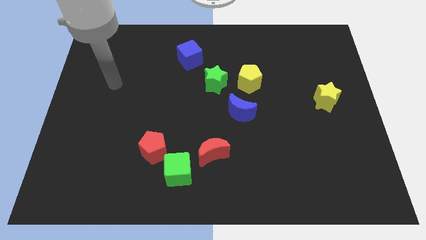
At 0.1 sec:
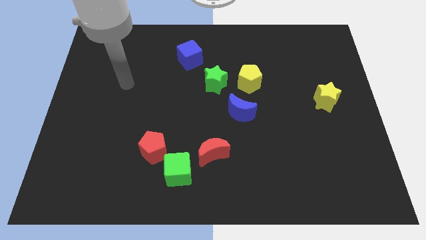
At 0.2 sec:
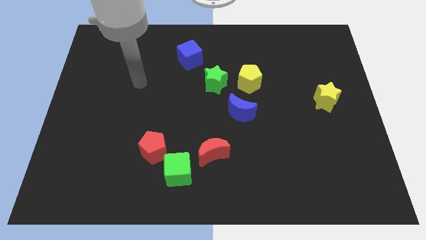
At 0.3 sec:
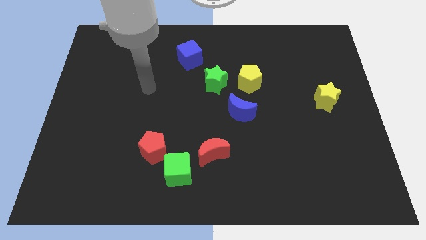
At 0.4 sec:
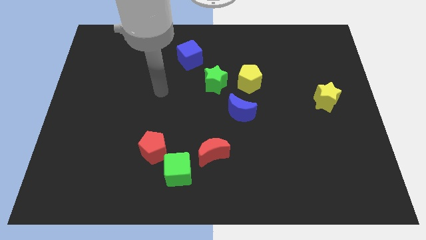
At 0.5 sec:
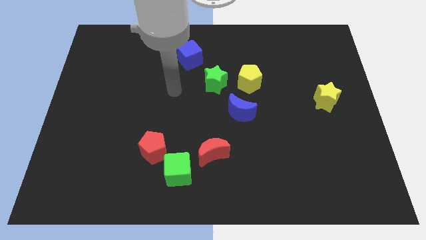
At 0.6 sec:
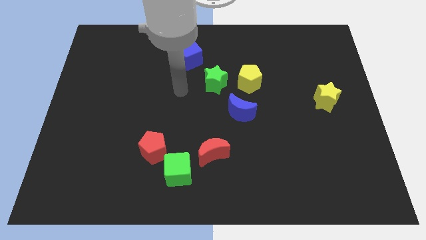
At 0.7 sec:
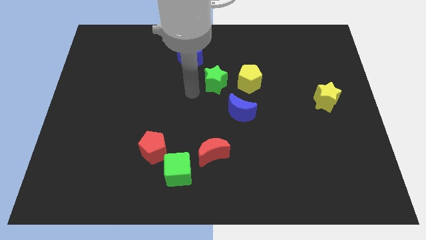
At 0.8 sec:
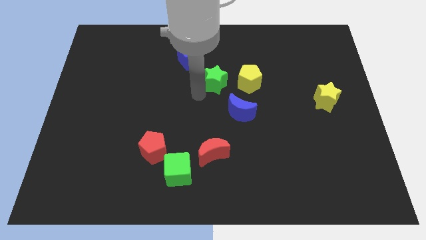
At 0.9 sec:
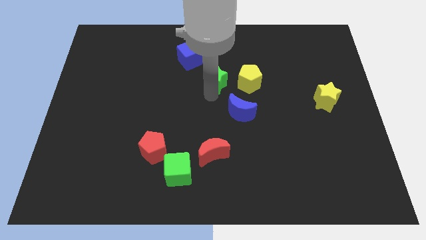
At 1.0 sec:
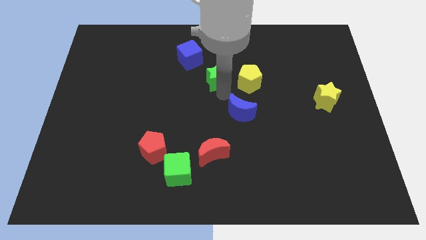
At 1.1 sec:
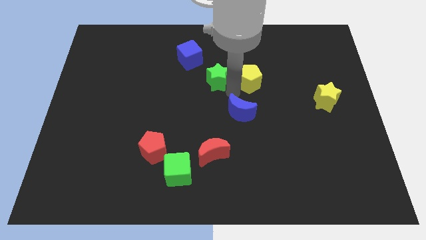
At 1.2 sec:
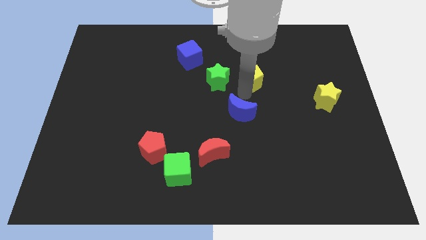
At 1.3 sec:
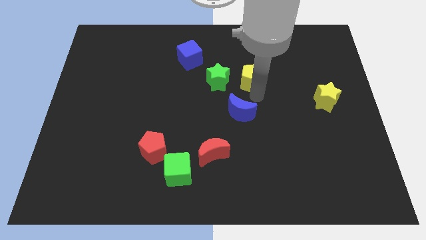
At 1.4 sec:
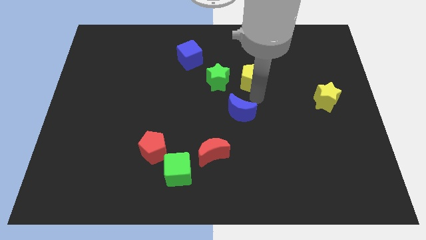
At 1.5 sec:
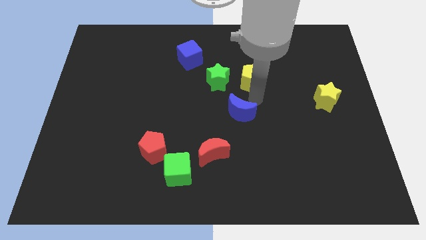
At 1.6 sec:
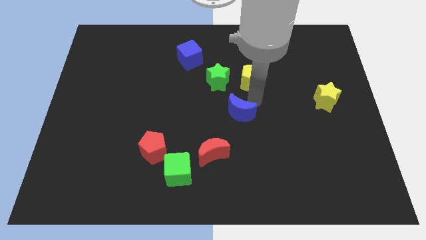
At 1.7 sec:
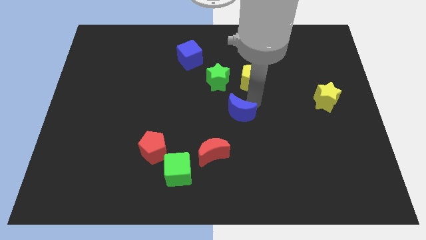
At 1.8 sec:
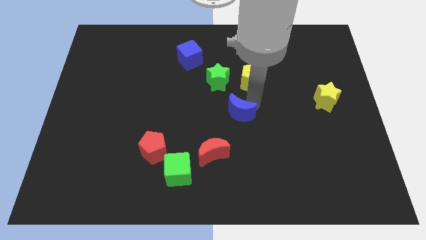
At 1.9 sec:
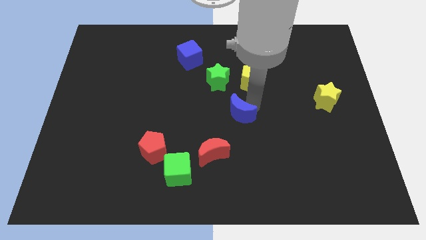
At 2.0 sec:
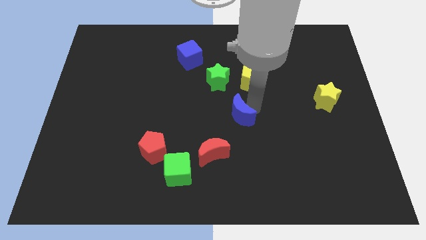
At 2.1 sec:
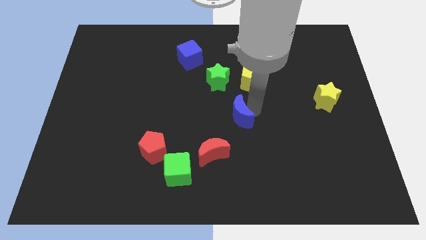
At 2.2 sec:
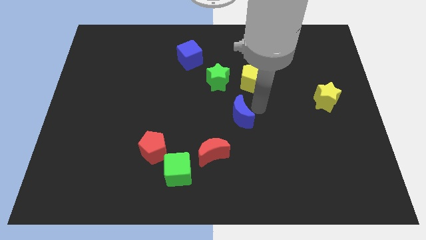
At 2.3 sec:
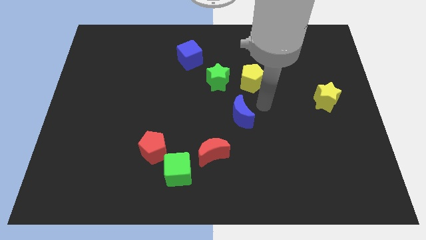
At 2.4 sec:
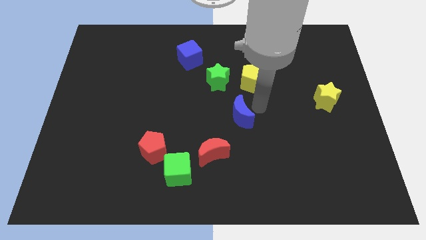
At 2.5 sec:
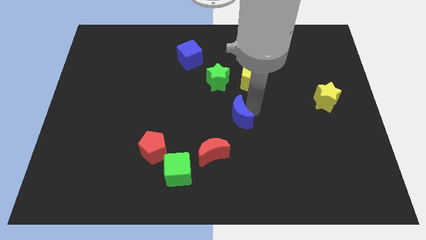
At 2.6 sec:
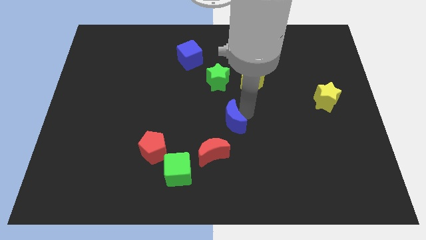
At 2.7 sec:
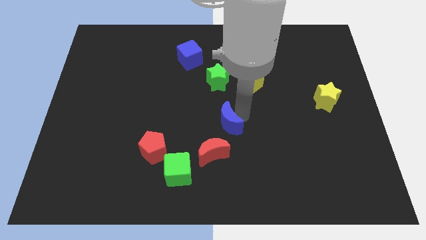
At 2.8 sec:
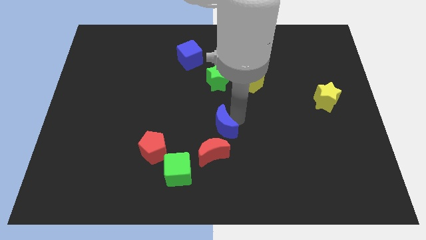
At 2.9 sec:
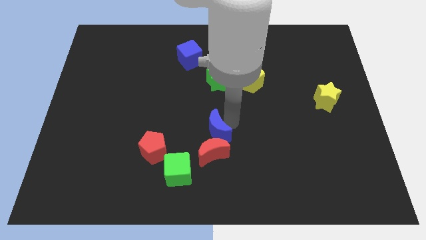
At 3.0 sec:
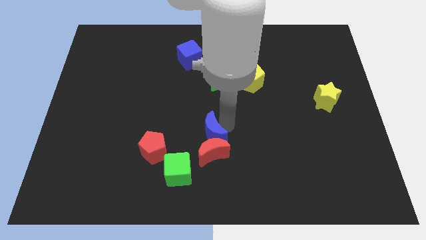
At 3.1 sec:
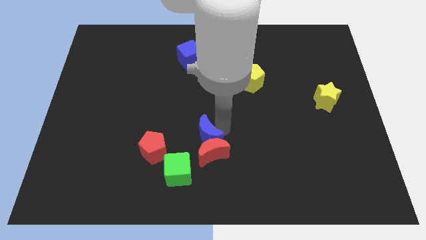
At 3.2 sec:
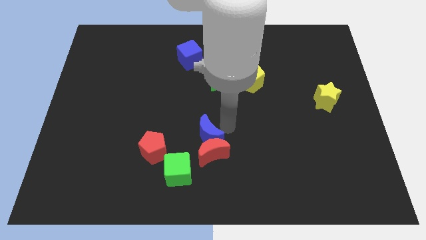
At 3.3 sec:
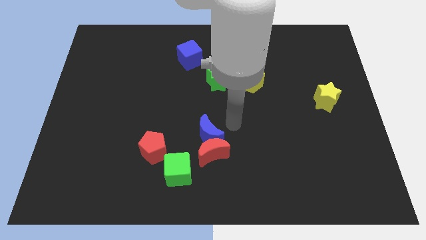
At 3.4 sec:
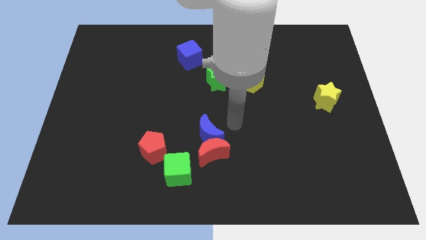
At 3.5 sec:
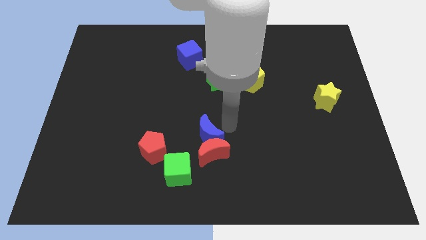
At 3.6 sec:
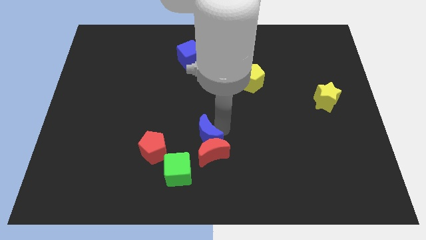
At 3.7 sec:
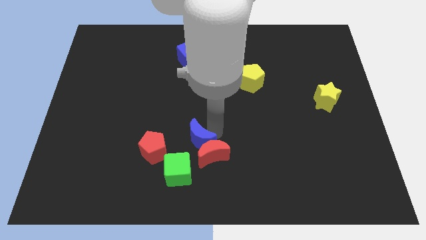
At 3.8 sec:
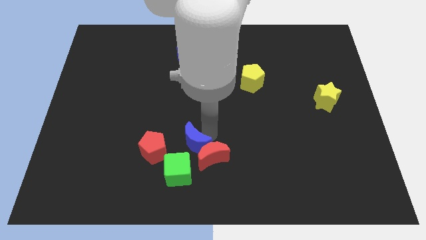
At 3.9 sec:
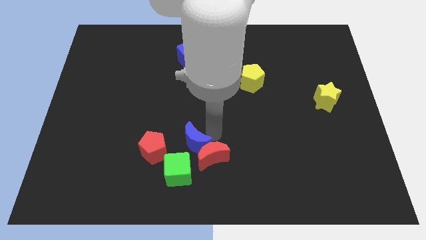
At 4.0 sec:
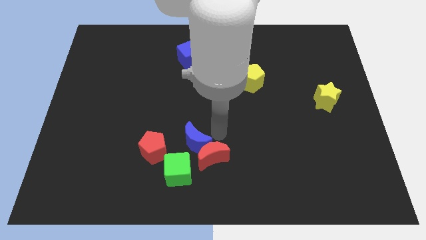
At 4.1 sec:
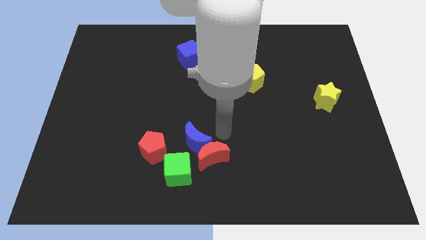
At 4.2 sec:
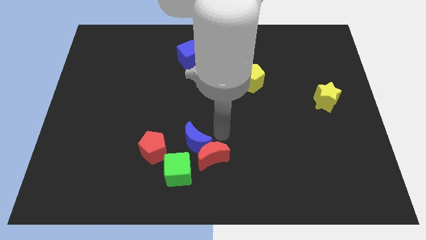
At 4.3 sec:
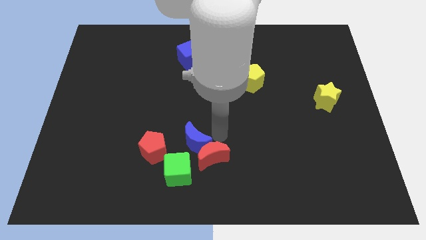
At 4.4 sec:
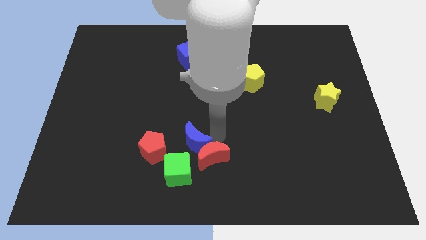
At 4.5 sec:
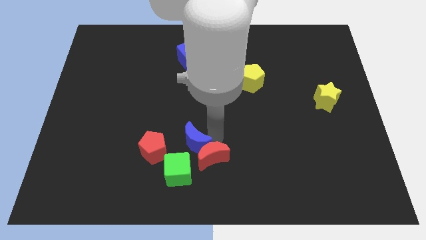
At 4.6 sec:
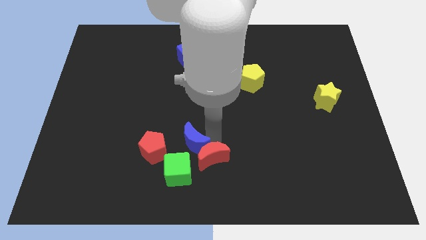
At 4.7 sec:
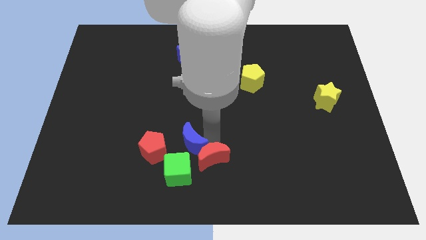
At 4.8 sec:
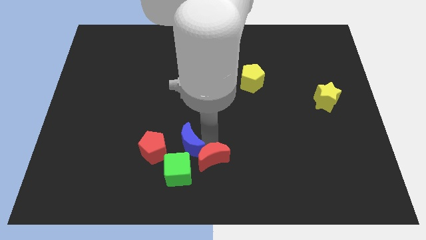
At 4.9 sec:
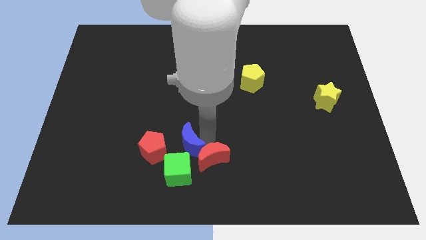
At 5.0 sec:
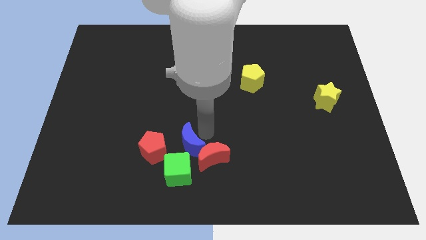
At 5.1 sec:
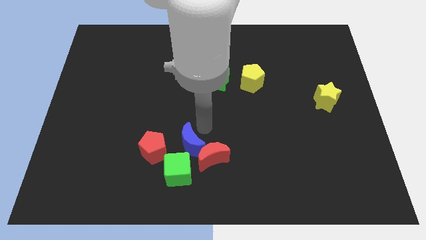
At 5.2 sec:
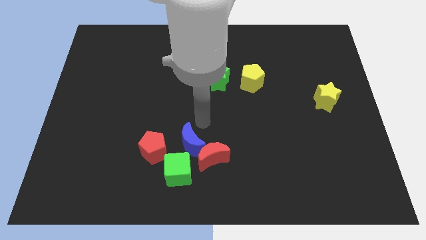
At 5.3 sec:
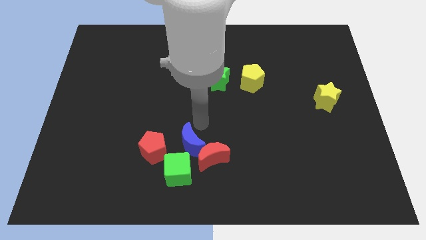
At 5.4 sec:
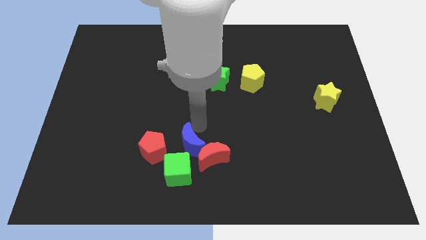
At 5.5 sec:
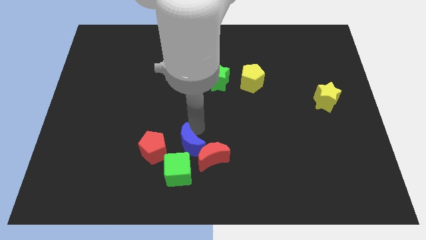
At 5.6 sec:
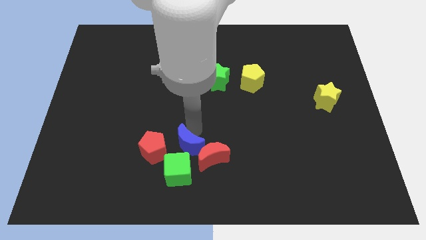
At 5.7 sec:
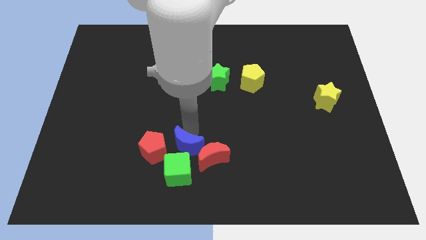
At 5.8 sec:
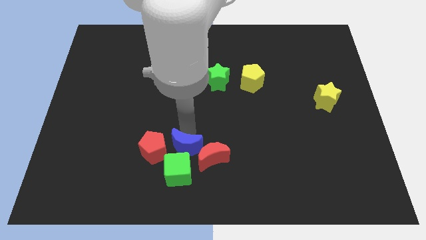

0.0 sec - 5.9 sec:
push the blue moon to the green cube
